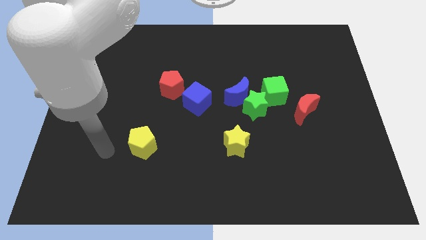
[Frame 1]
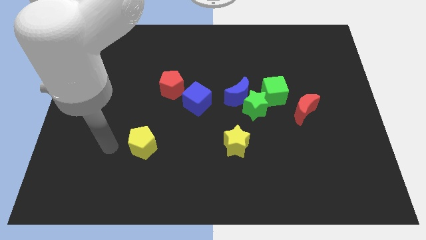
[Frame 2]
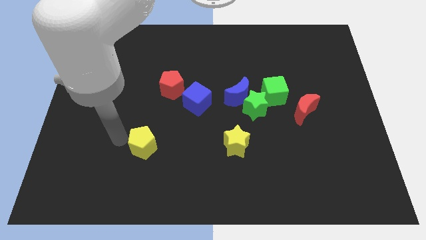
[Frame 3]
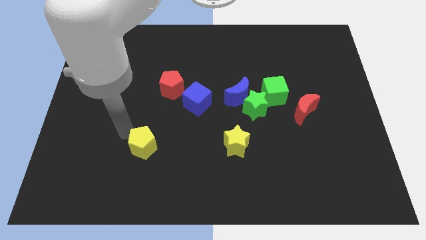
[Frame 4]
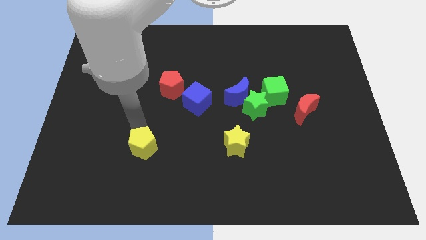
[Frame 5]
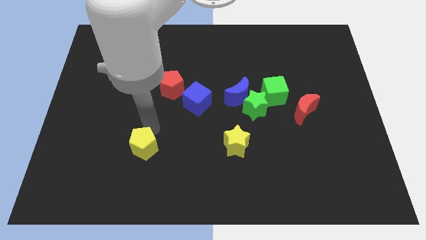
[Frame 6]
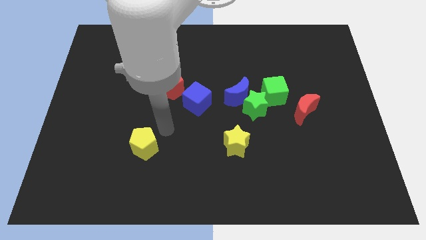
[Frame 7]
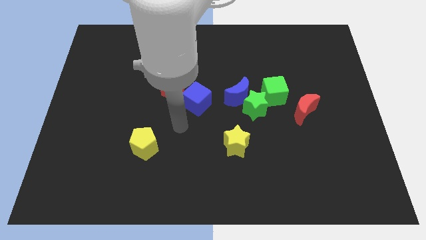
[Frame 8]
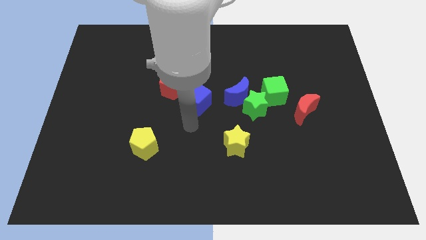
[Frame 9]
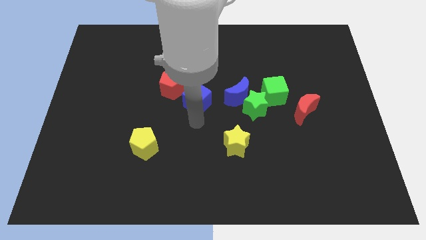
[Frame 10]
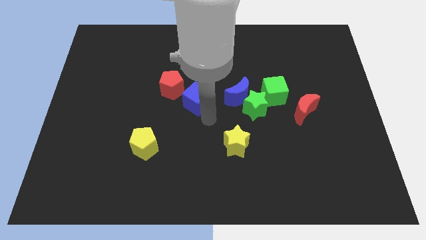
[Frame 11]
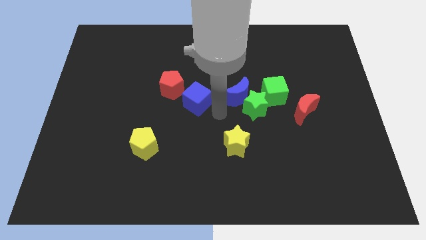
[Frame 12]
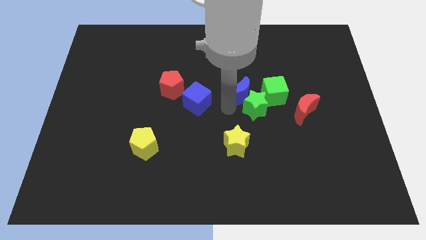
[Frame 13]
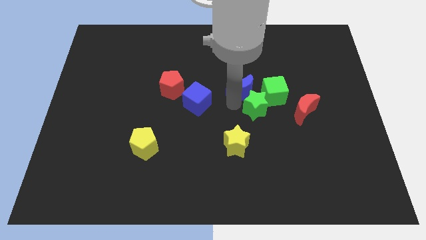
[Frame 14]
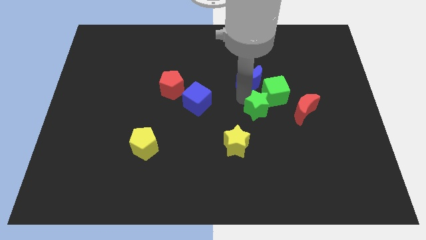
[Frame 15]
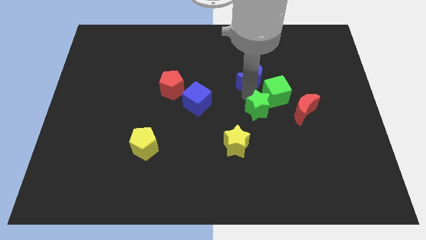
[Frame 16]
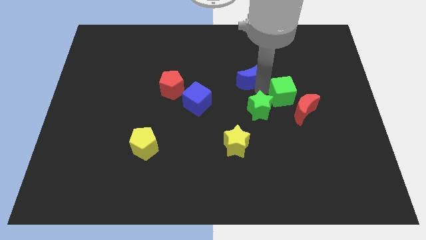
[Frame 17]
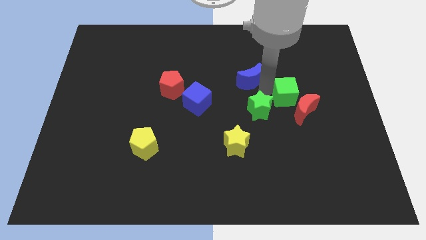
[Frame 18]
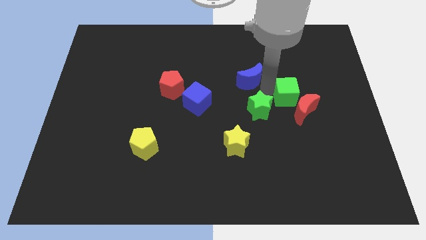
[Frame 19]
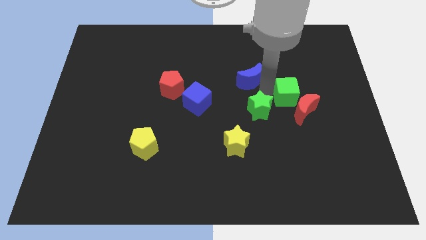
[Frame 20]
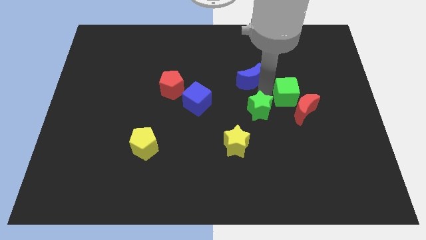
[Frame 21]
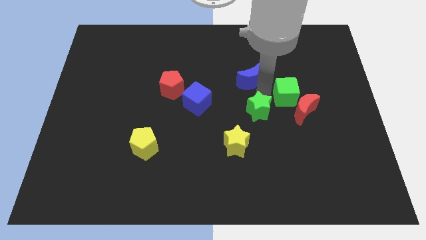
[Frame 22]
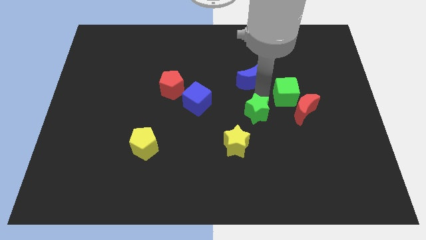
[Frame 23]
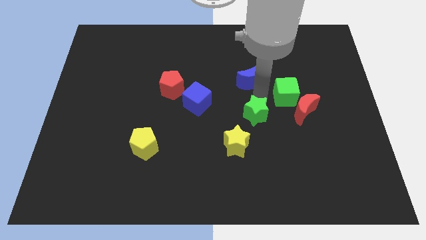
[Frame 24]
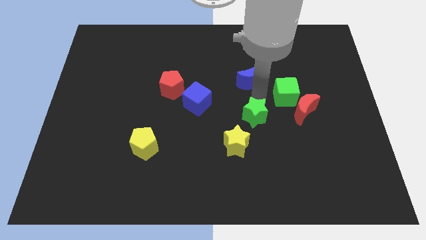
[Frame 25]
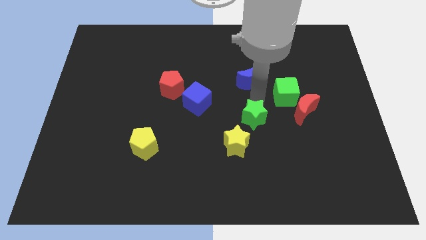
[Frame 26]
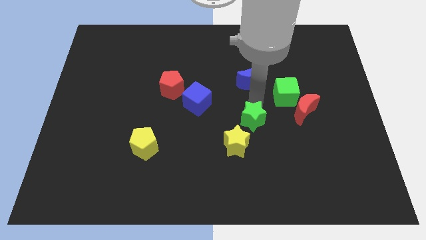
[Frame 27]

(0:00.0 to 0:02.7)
pull the green star apart from the blue moon and green cube

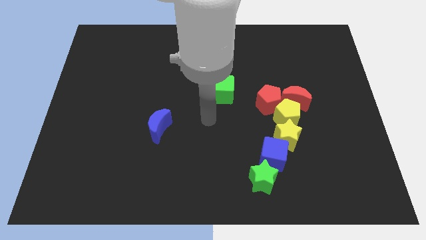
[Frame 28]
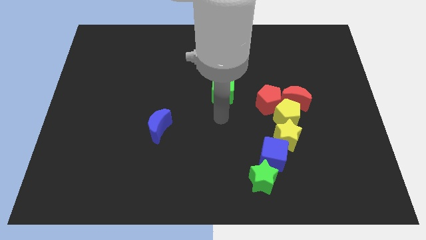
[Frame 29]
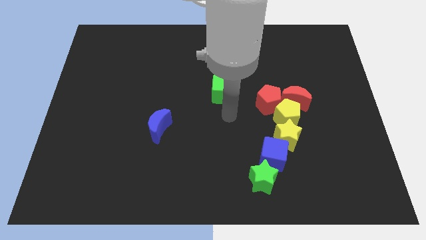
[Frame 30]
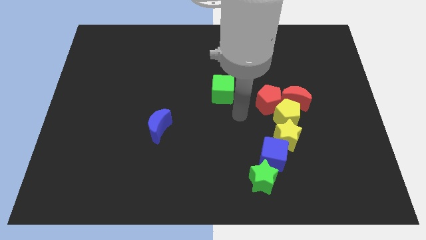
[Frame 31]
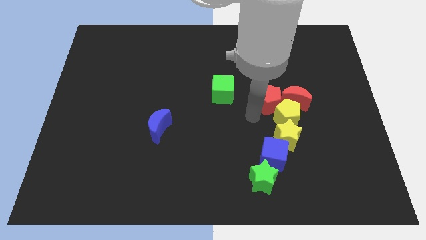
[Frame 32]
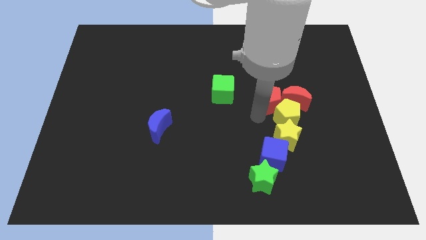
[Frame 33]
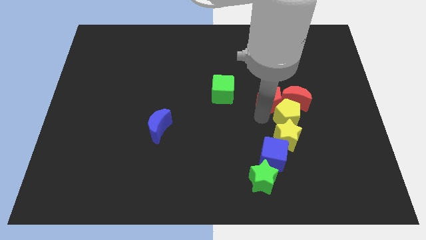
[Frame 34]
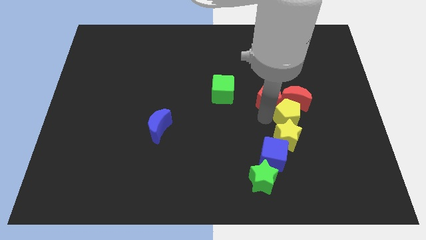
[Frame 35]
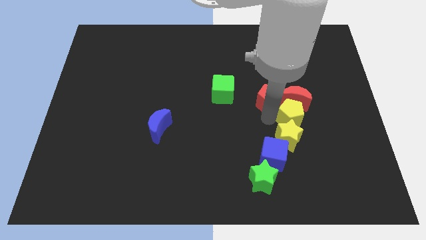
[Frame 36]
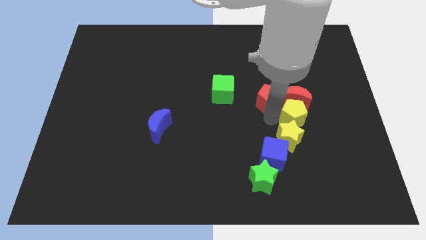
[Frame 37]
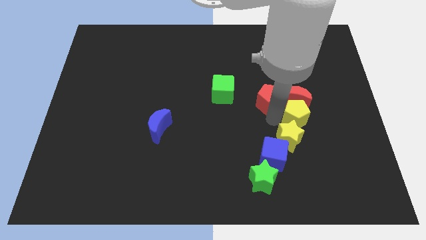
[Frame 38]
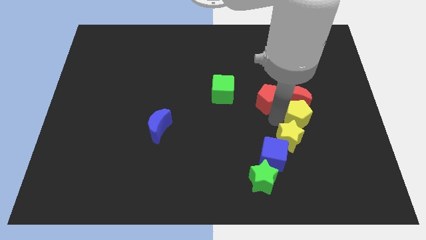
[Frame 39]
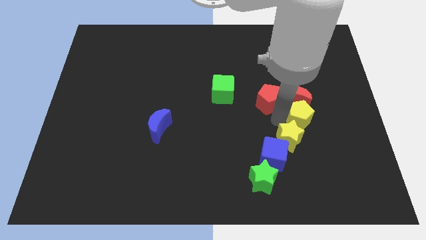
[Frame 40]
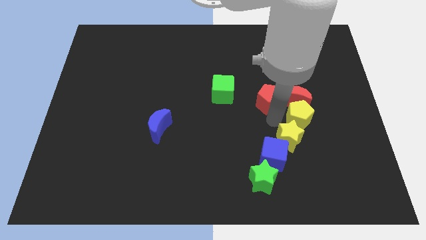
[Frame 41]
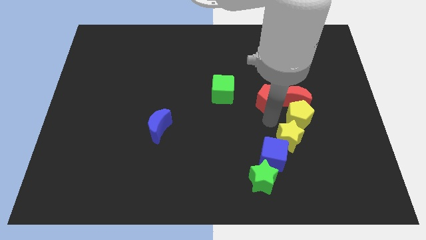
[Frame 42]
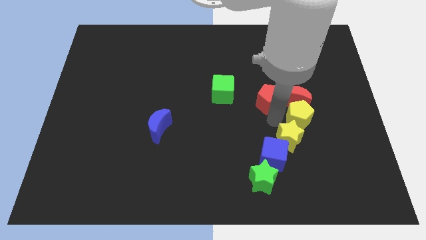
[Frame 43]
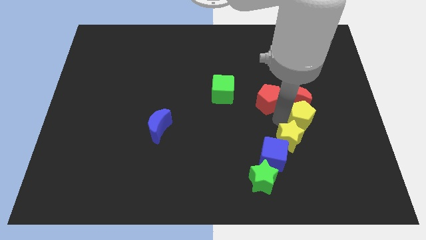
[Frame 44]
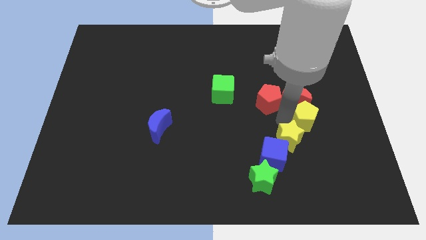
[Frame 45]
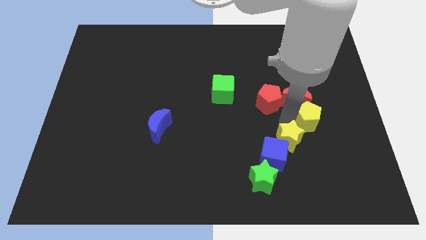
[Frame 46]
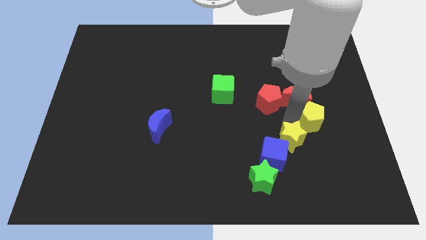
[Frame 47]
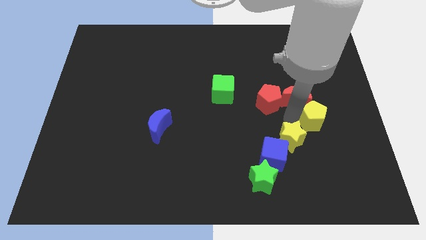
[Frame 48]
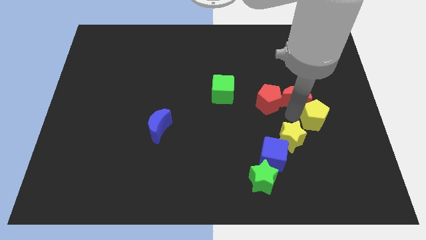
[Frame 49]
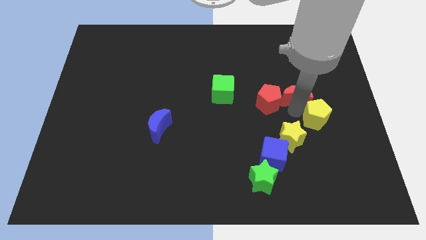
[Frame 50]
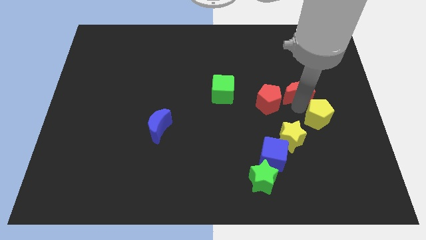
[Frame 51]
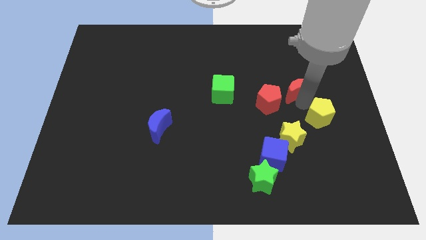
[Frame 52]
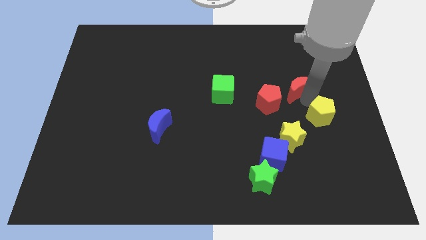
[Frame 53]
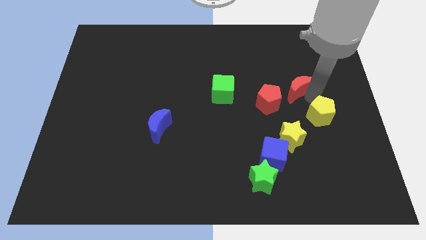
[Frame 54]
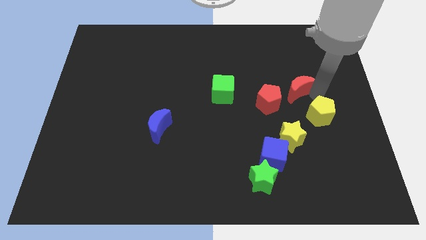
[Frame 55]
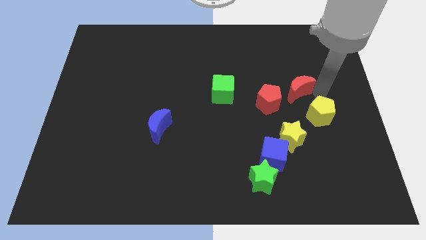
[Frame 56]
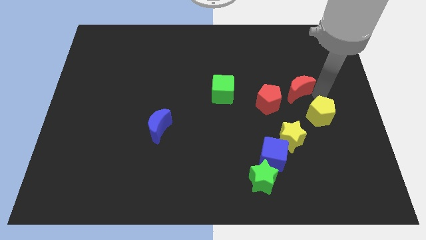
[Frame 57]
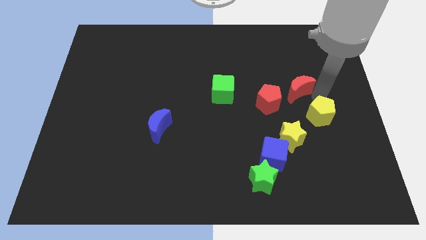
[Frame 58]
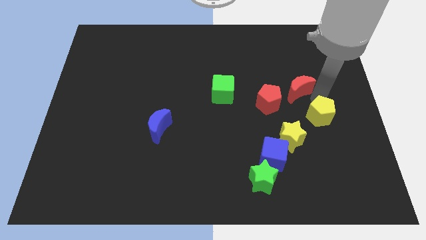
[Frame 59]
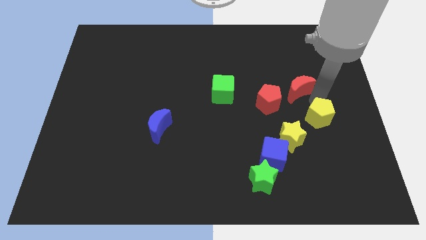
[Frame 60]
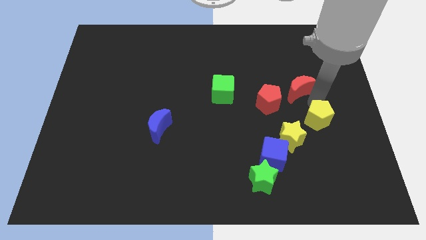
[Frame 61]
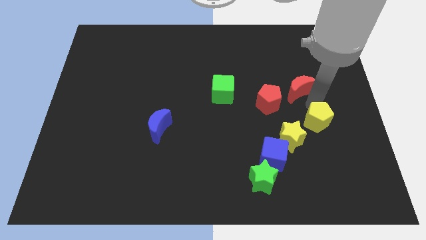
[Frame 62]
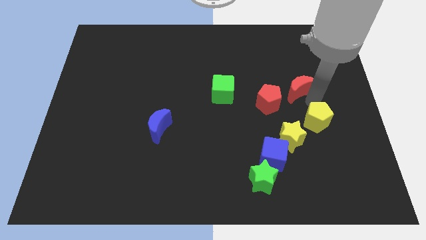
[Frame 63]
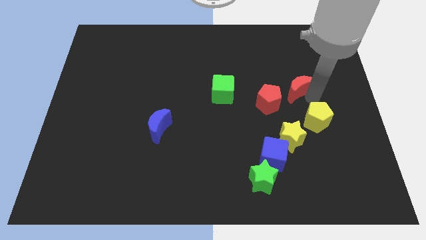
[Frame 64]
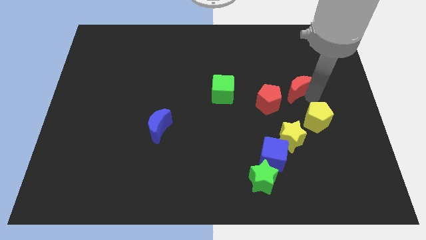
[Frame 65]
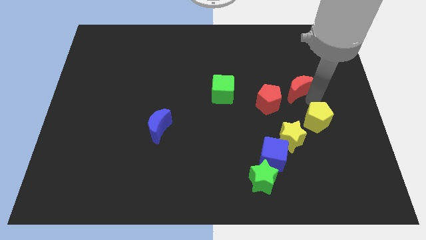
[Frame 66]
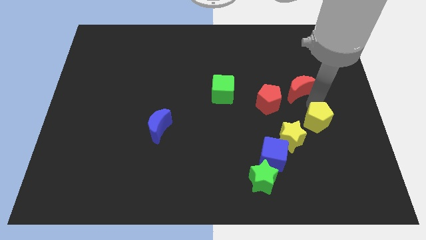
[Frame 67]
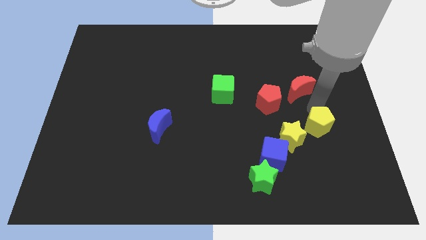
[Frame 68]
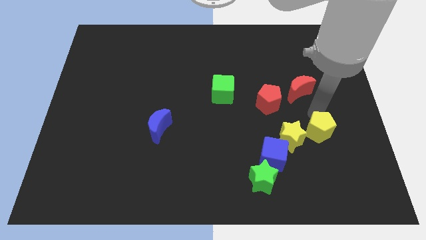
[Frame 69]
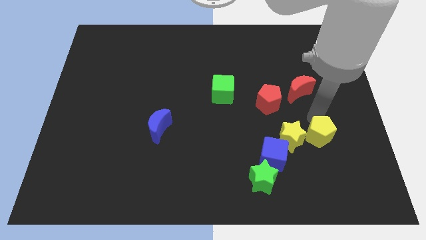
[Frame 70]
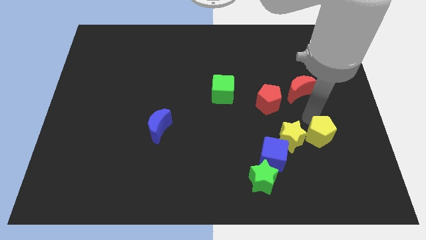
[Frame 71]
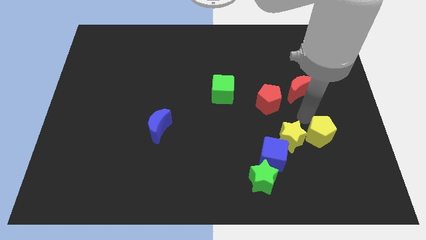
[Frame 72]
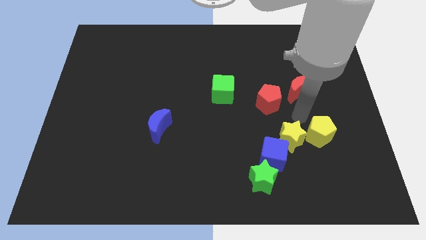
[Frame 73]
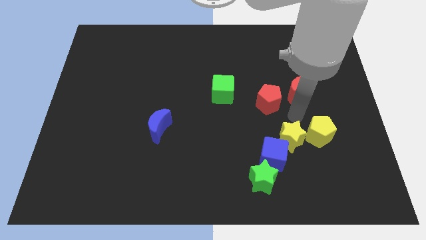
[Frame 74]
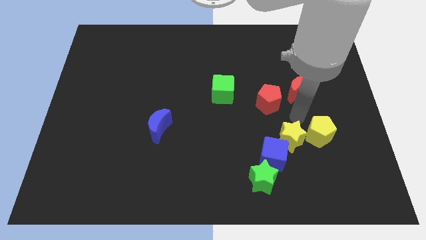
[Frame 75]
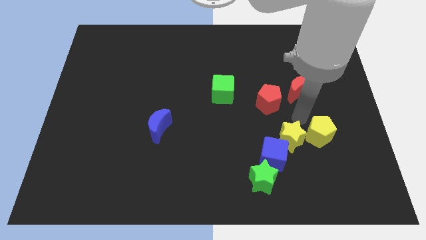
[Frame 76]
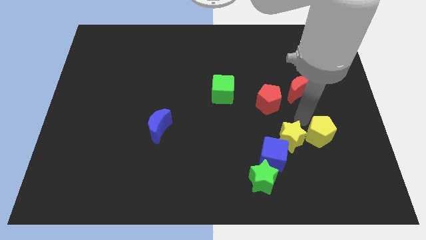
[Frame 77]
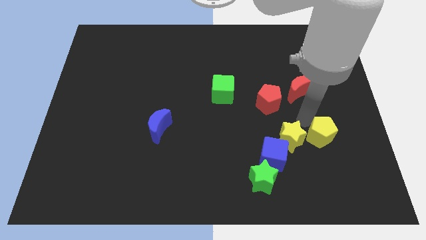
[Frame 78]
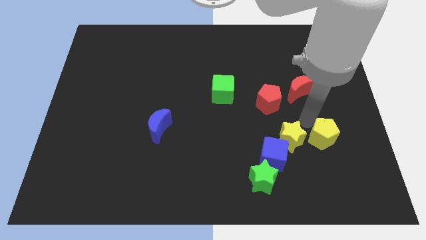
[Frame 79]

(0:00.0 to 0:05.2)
pull the yellow pentagon apart from the group

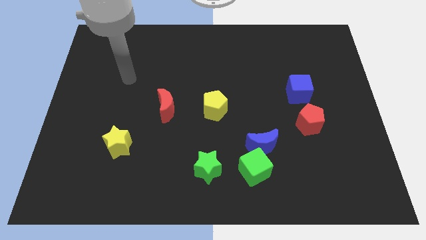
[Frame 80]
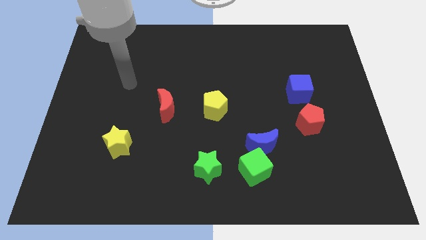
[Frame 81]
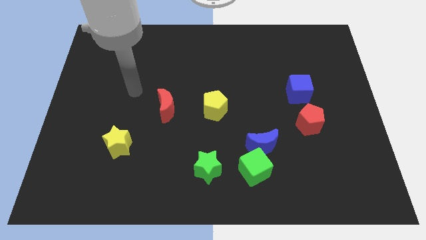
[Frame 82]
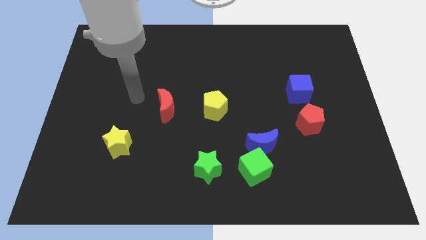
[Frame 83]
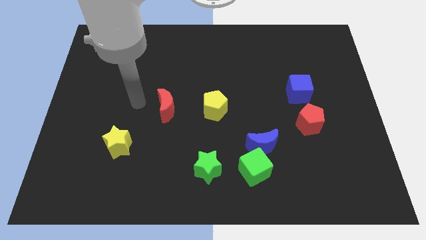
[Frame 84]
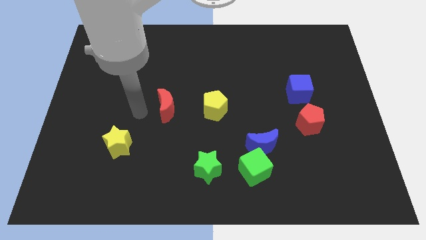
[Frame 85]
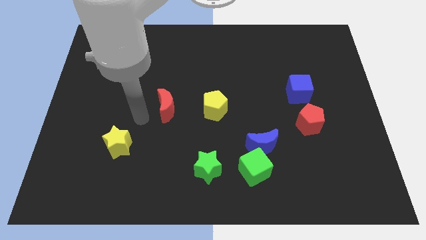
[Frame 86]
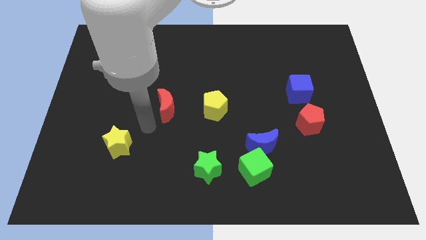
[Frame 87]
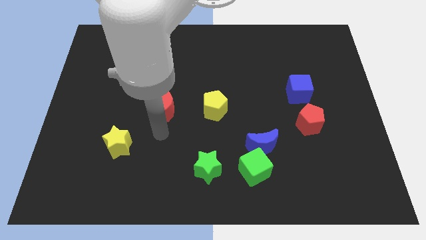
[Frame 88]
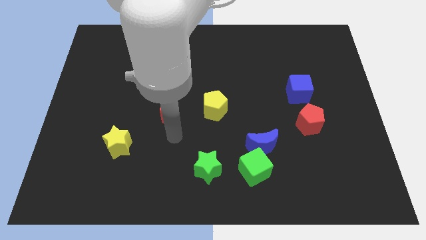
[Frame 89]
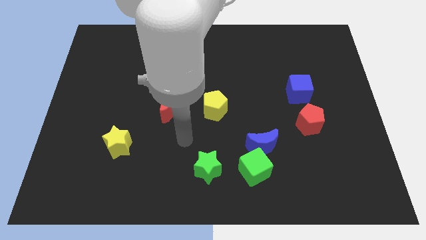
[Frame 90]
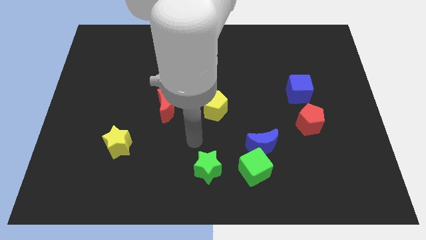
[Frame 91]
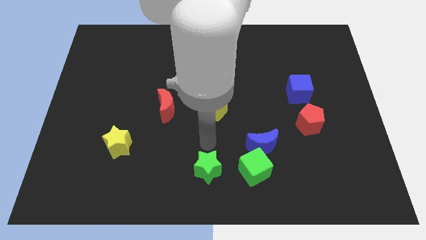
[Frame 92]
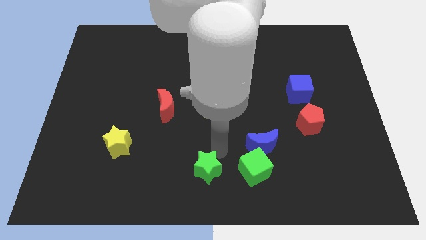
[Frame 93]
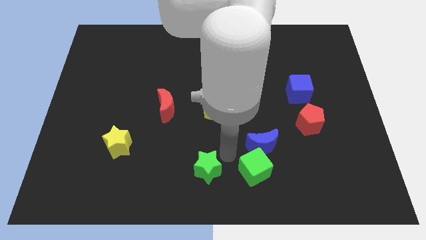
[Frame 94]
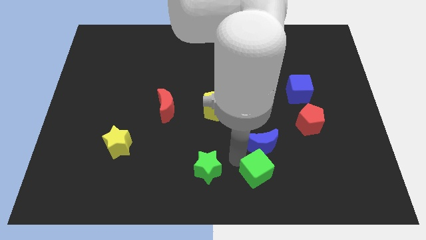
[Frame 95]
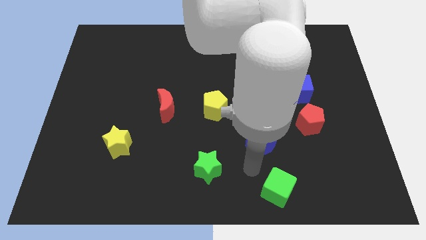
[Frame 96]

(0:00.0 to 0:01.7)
separate the blue moon from the green cube

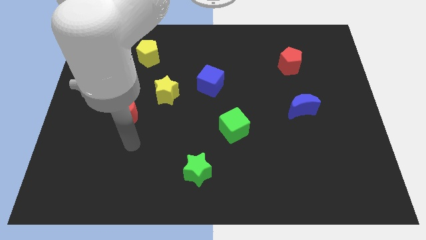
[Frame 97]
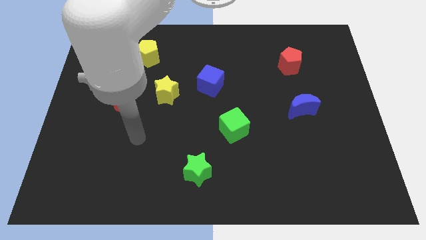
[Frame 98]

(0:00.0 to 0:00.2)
separate the red moon from the yellow star
